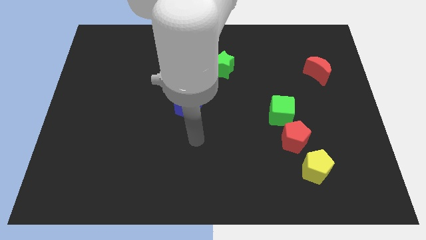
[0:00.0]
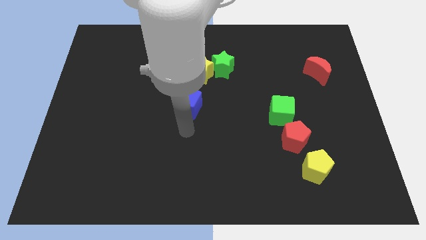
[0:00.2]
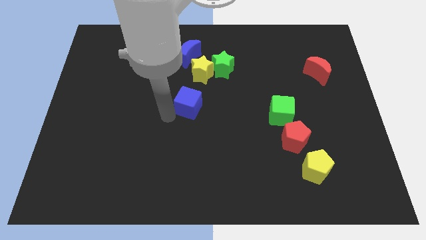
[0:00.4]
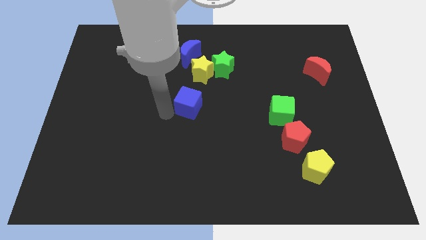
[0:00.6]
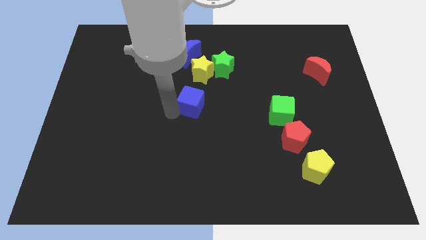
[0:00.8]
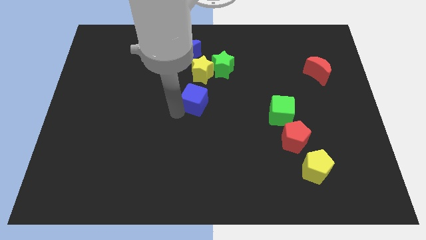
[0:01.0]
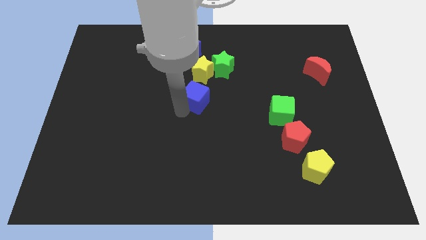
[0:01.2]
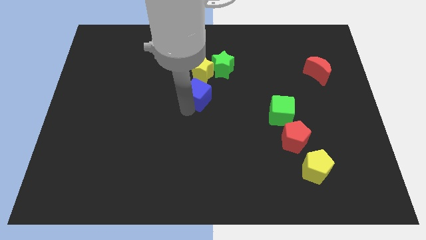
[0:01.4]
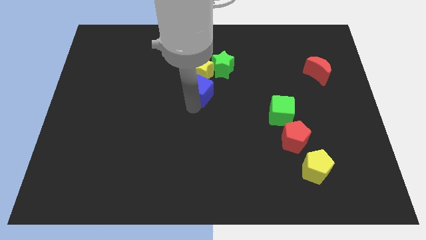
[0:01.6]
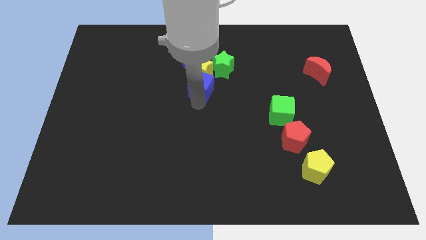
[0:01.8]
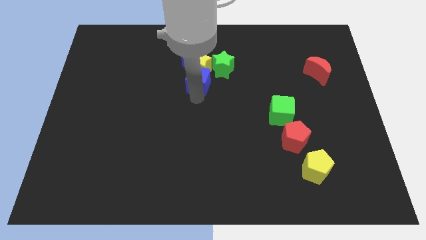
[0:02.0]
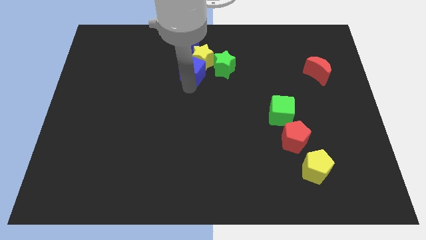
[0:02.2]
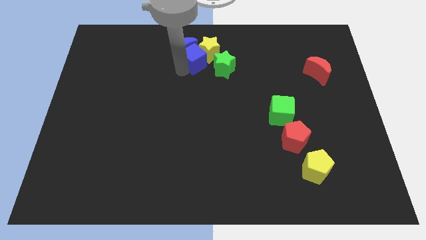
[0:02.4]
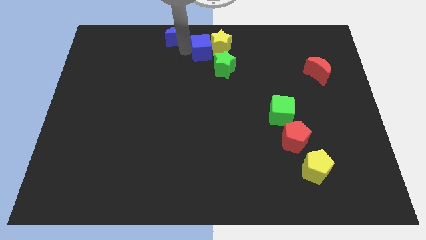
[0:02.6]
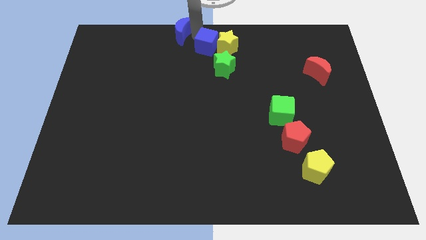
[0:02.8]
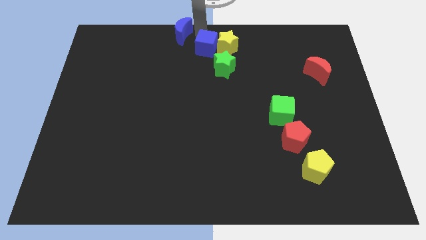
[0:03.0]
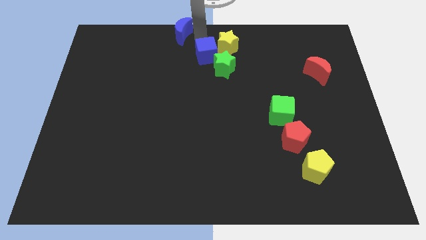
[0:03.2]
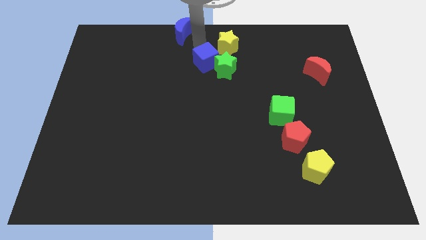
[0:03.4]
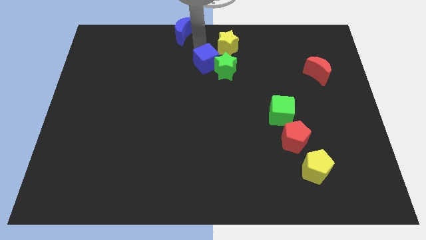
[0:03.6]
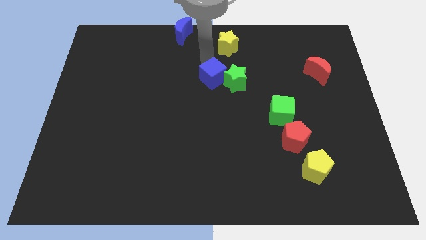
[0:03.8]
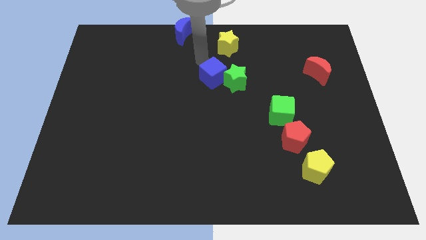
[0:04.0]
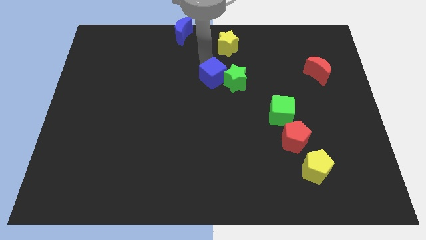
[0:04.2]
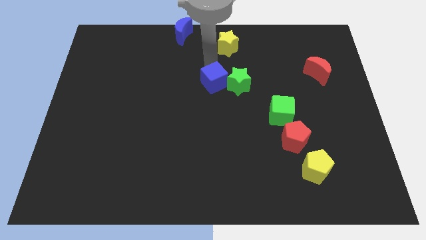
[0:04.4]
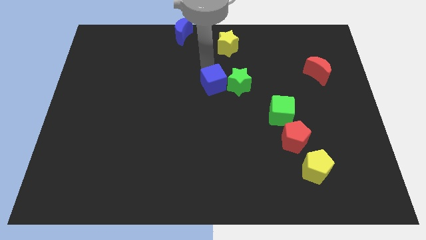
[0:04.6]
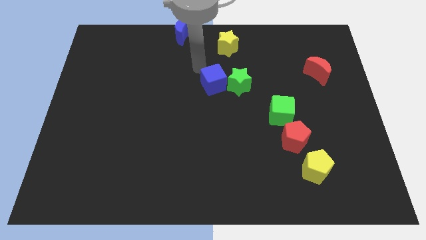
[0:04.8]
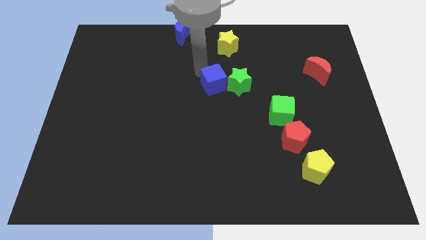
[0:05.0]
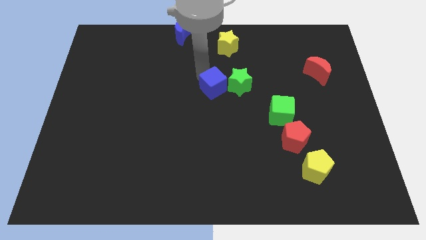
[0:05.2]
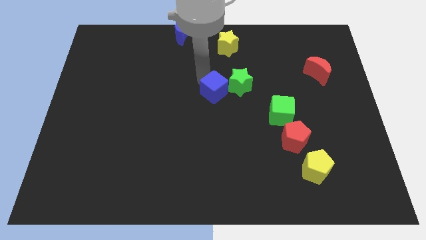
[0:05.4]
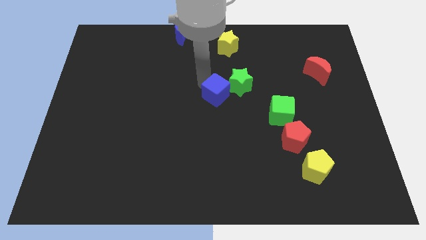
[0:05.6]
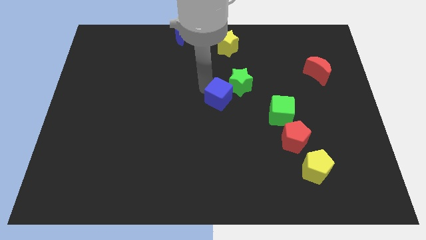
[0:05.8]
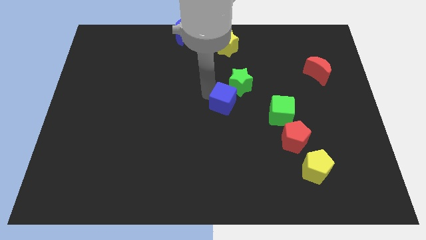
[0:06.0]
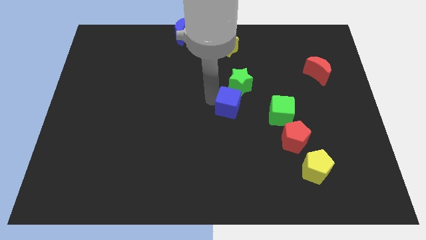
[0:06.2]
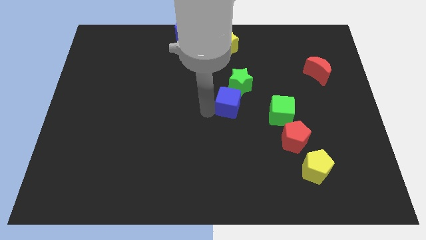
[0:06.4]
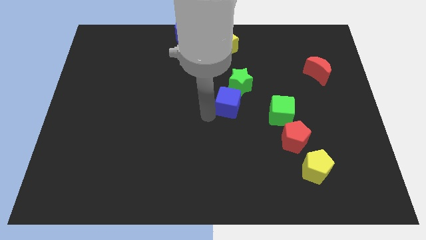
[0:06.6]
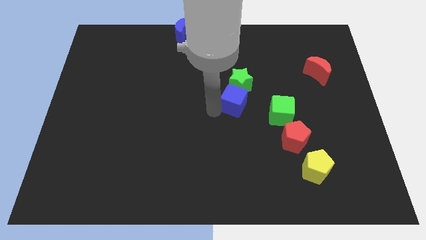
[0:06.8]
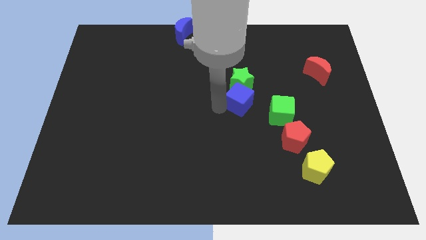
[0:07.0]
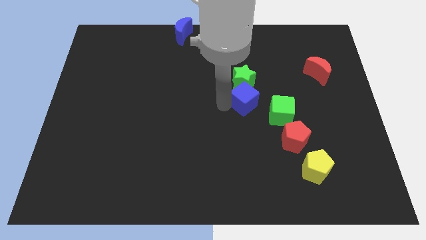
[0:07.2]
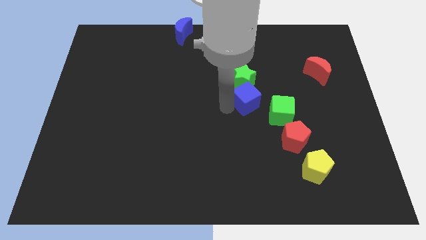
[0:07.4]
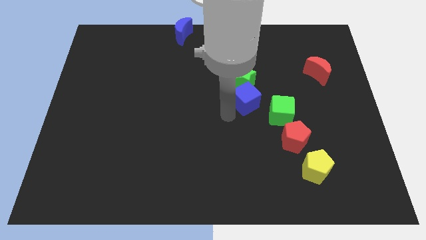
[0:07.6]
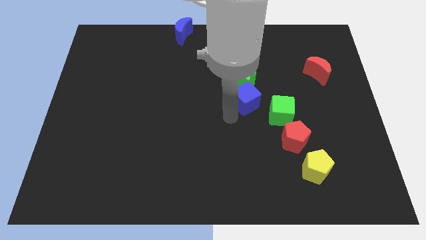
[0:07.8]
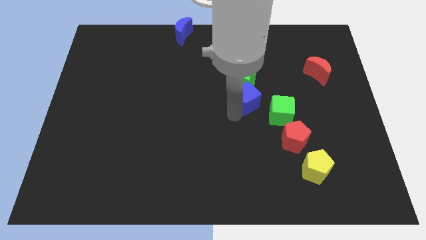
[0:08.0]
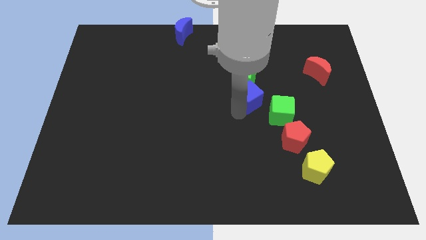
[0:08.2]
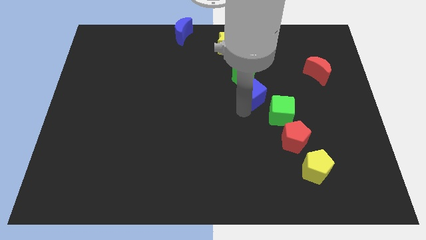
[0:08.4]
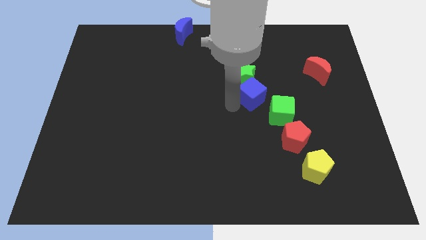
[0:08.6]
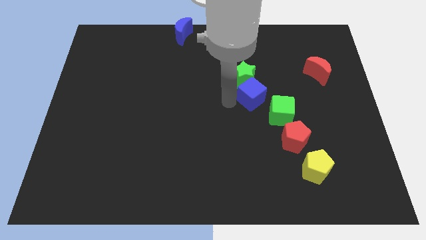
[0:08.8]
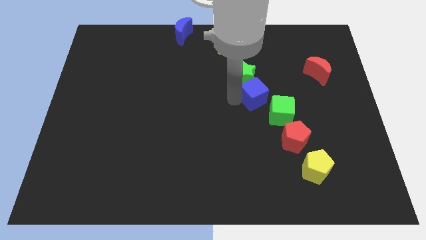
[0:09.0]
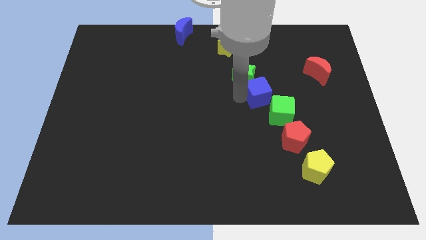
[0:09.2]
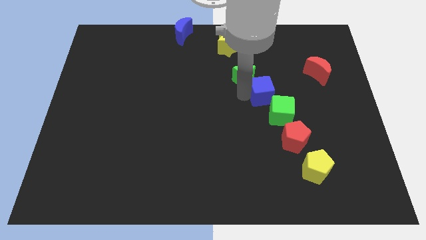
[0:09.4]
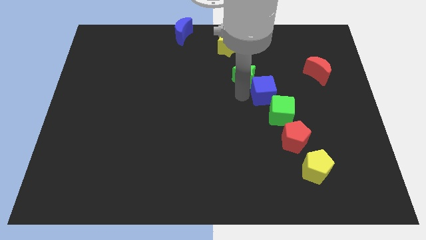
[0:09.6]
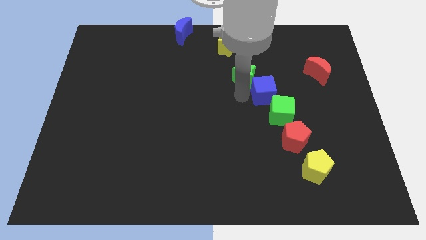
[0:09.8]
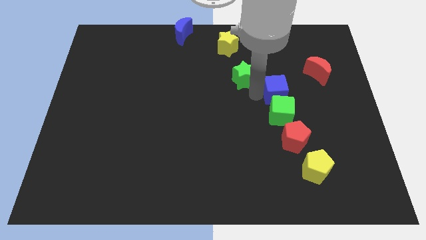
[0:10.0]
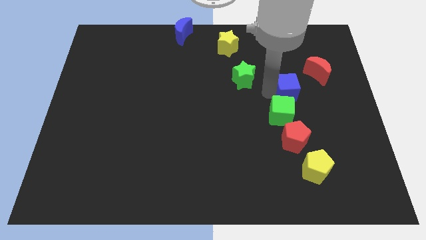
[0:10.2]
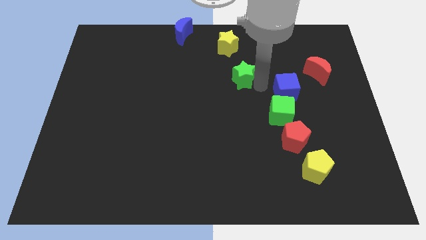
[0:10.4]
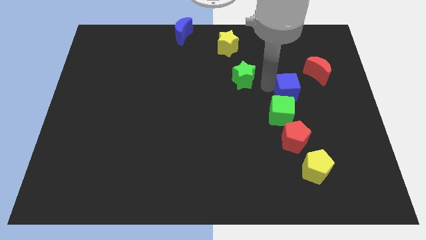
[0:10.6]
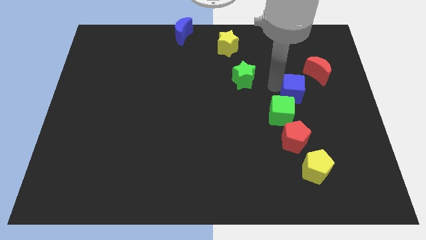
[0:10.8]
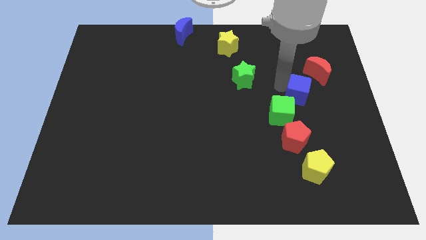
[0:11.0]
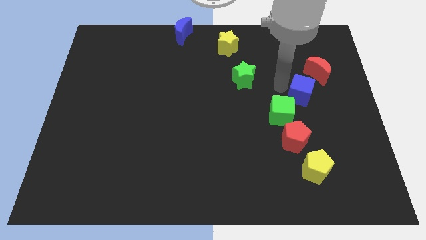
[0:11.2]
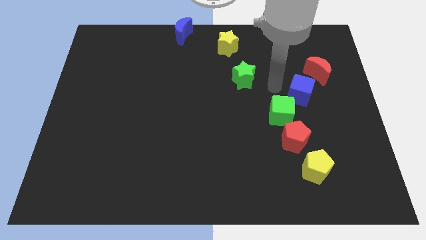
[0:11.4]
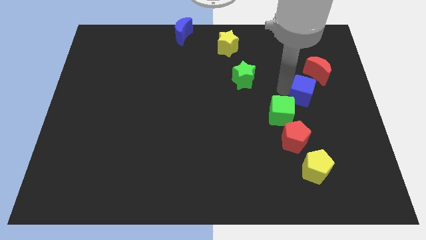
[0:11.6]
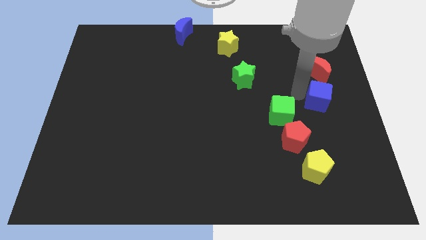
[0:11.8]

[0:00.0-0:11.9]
put the blue cube to the right side

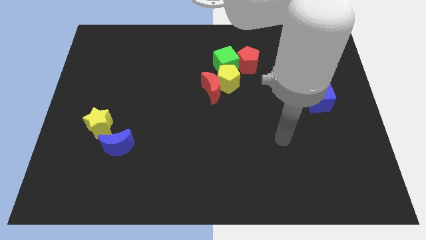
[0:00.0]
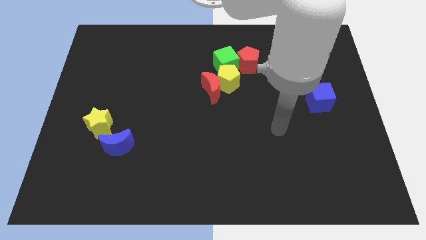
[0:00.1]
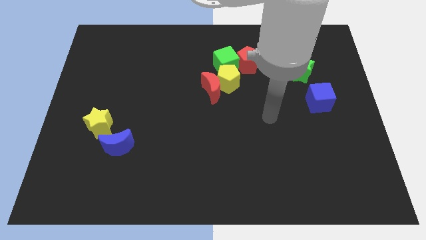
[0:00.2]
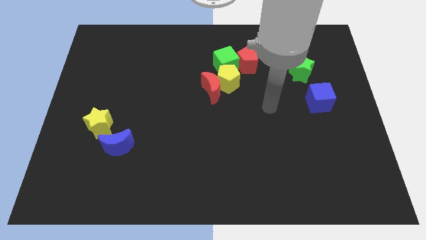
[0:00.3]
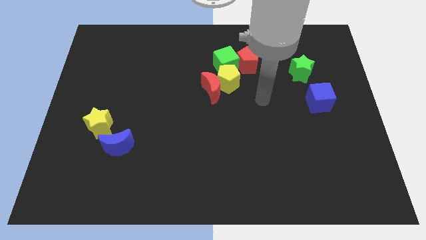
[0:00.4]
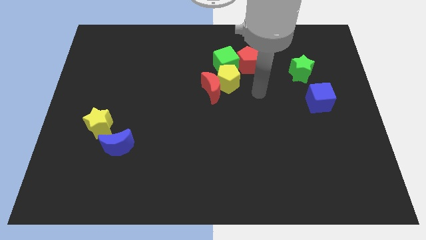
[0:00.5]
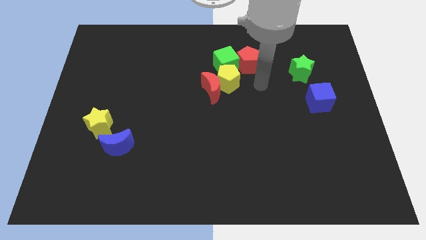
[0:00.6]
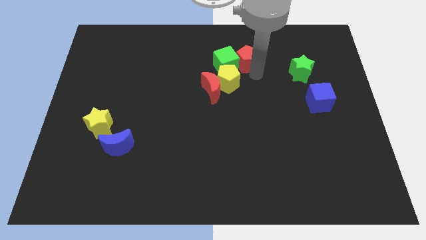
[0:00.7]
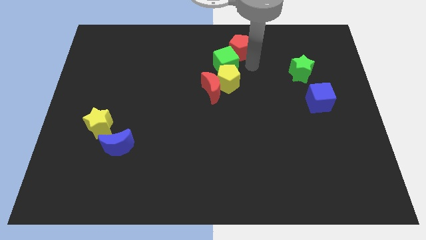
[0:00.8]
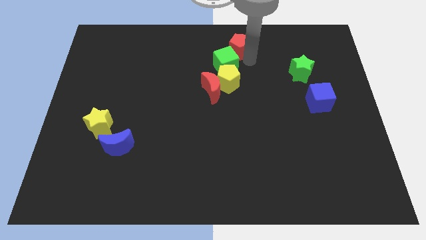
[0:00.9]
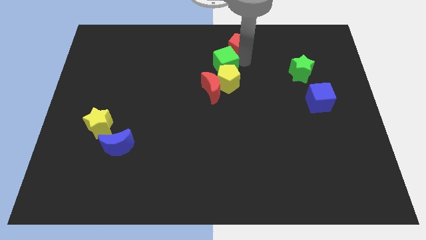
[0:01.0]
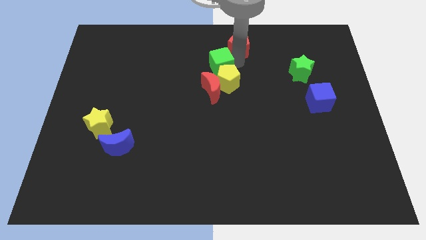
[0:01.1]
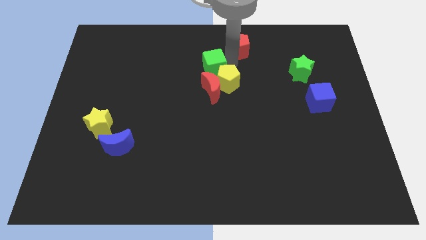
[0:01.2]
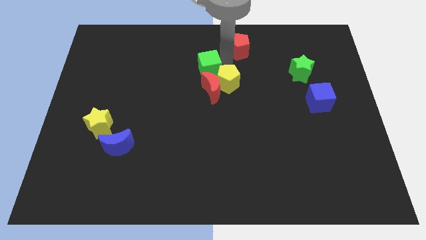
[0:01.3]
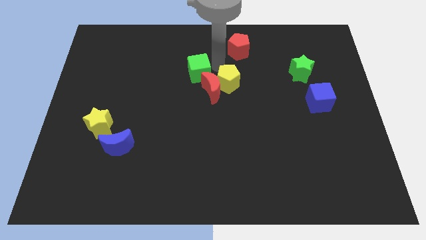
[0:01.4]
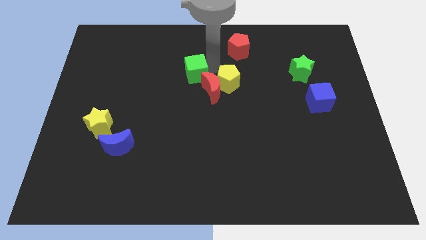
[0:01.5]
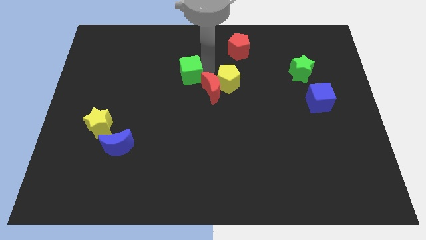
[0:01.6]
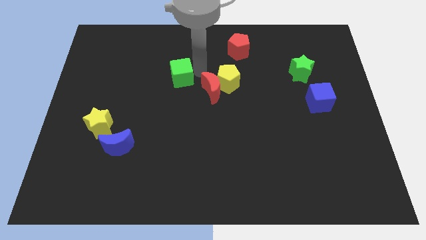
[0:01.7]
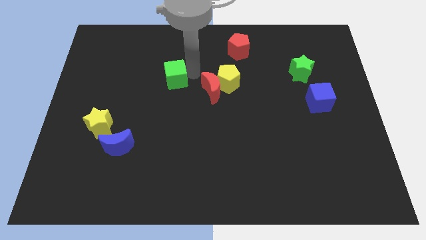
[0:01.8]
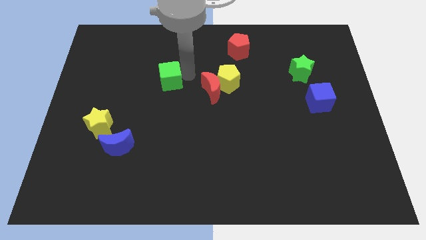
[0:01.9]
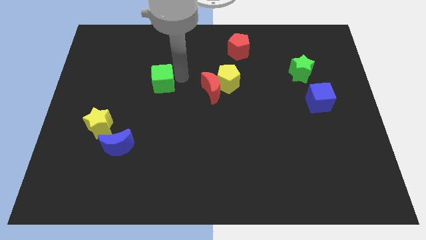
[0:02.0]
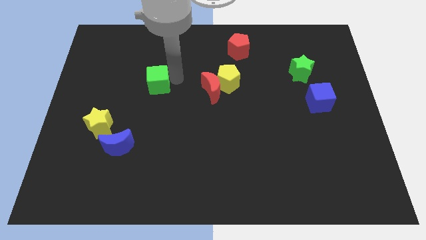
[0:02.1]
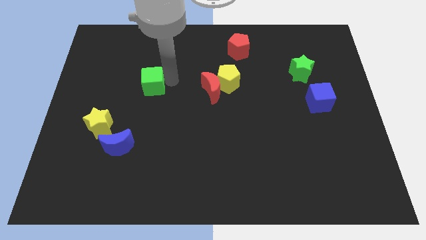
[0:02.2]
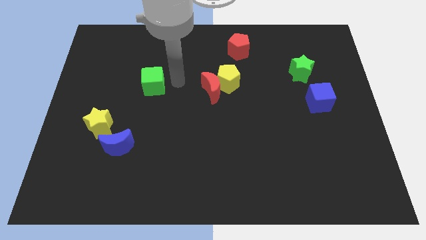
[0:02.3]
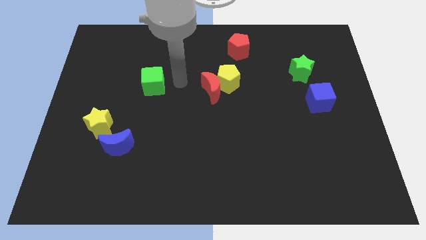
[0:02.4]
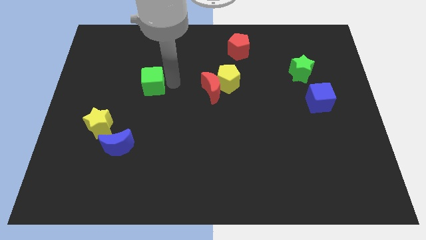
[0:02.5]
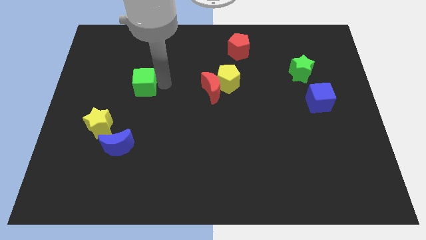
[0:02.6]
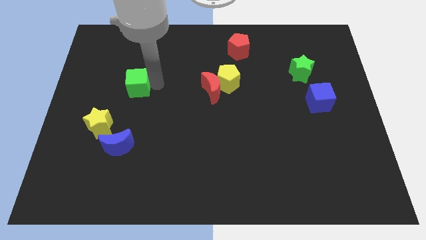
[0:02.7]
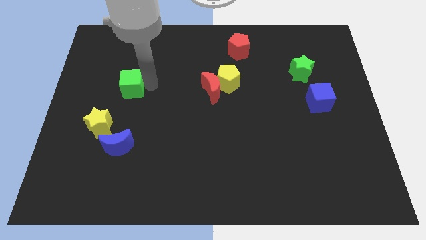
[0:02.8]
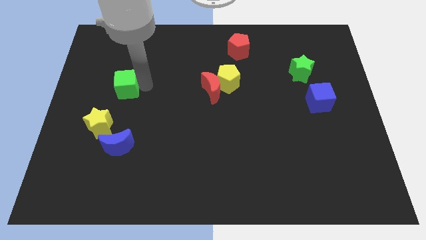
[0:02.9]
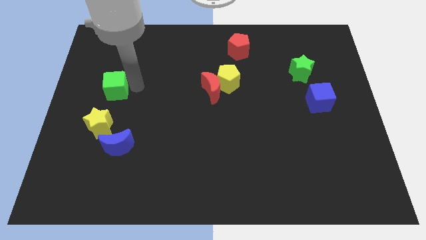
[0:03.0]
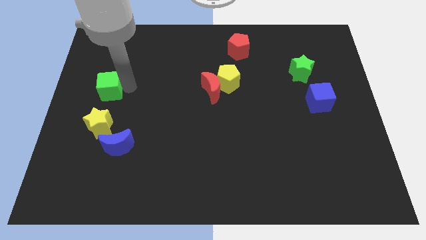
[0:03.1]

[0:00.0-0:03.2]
put the green cube to the left side of the board
